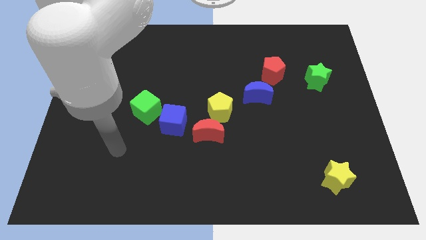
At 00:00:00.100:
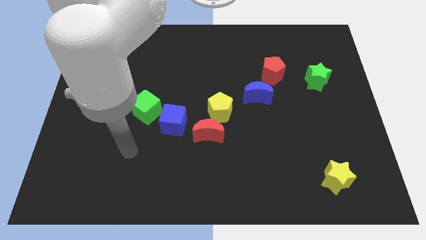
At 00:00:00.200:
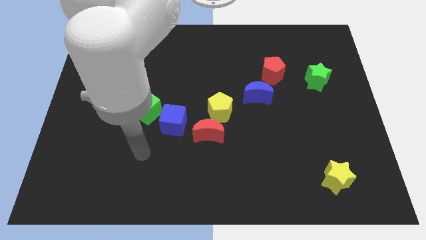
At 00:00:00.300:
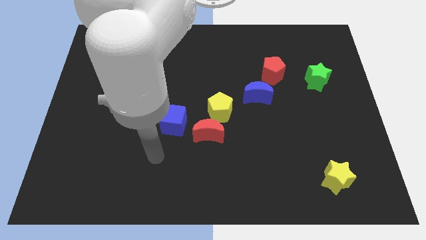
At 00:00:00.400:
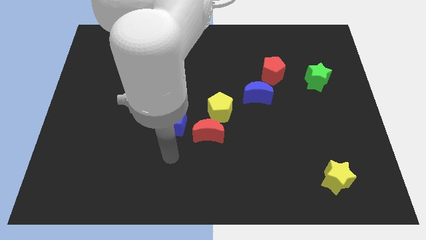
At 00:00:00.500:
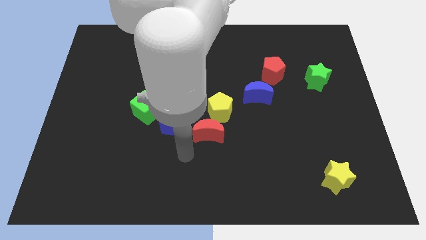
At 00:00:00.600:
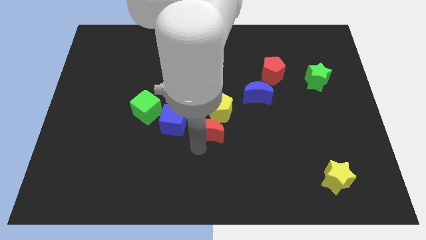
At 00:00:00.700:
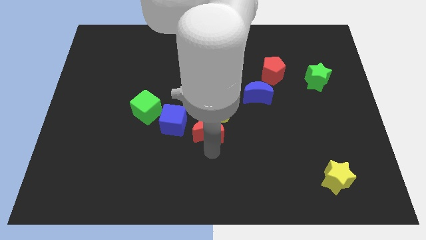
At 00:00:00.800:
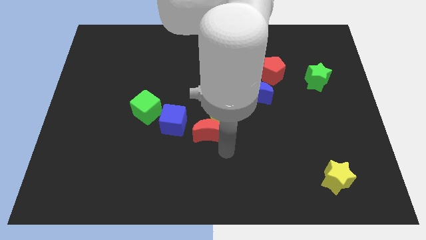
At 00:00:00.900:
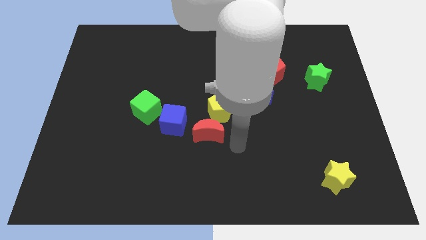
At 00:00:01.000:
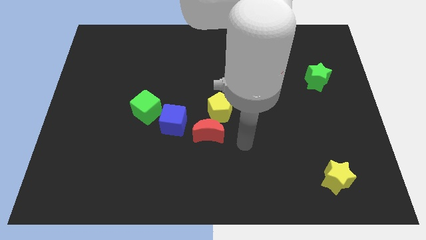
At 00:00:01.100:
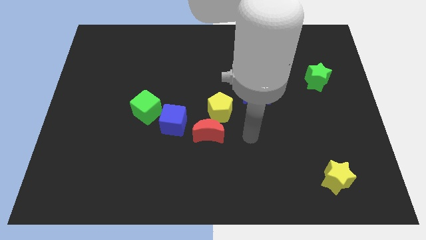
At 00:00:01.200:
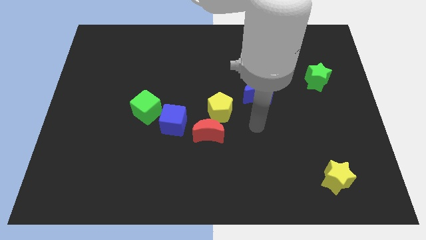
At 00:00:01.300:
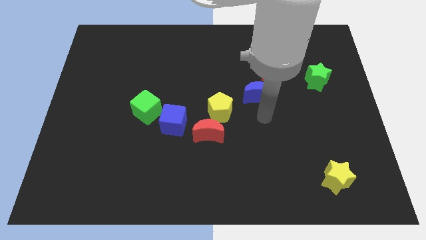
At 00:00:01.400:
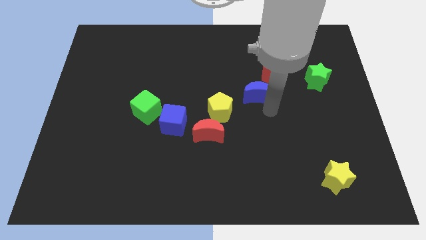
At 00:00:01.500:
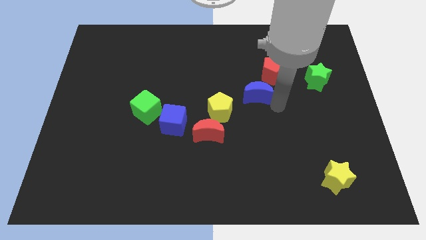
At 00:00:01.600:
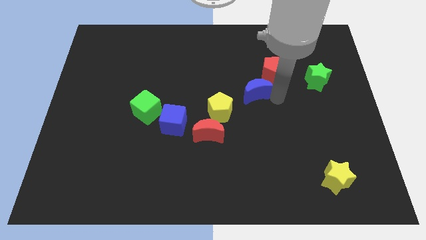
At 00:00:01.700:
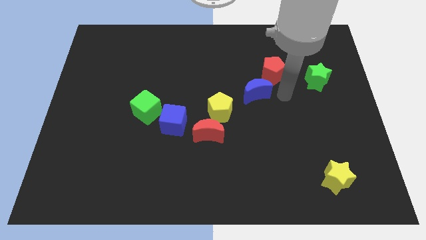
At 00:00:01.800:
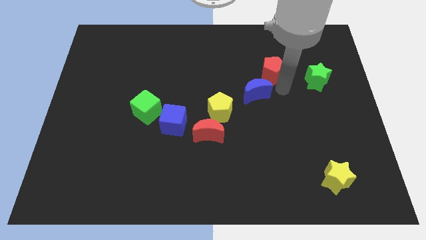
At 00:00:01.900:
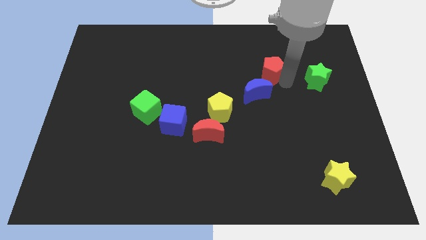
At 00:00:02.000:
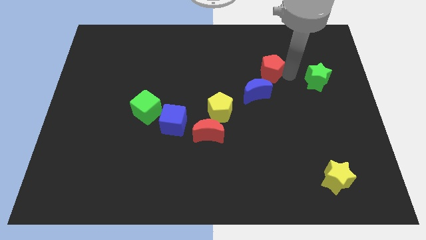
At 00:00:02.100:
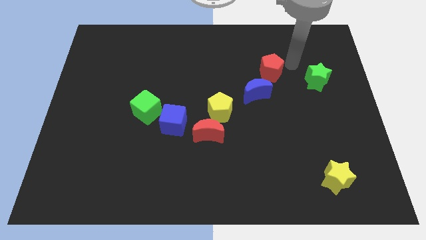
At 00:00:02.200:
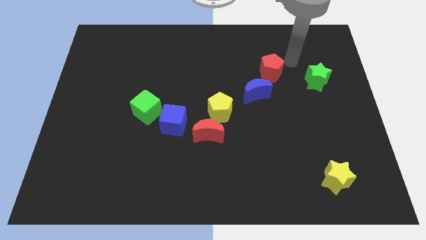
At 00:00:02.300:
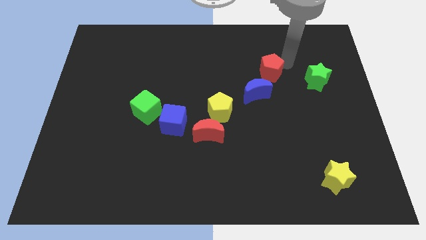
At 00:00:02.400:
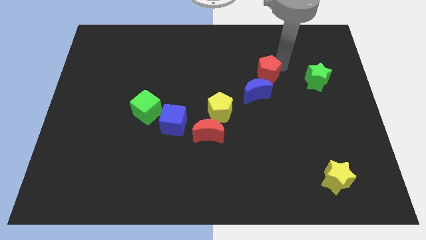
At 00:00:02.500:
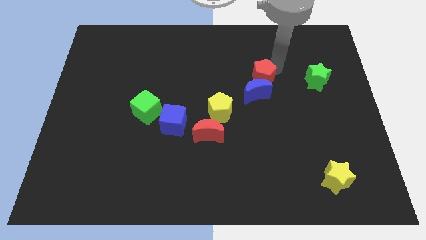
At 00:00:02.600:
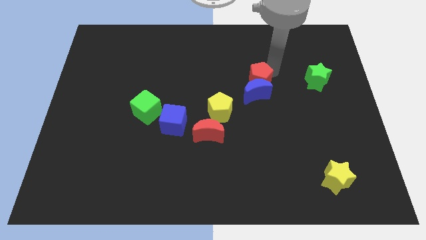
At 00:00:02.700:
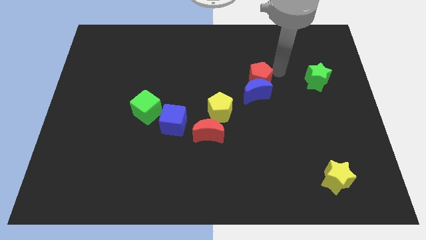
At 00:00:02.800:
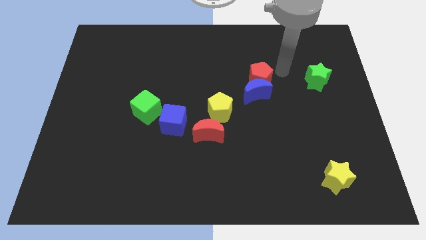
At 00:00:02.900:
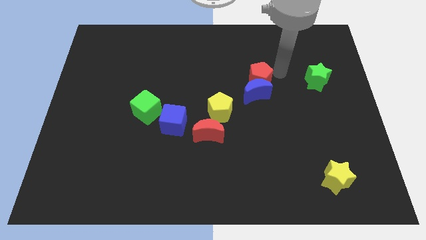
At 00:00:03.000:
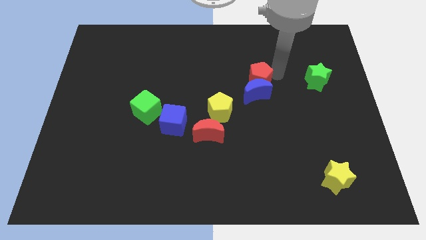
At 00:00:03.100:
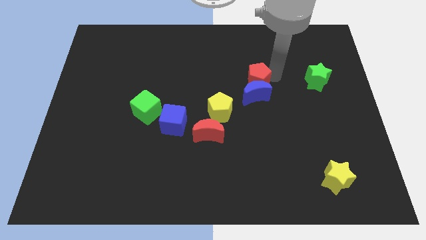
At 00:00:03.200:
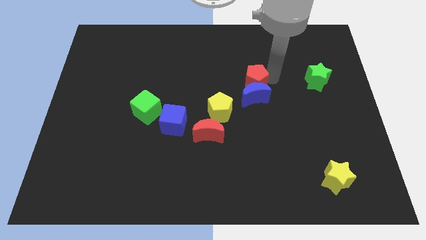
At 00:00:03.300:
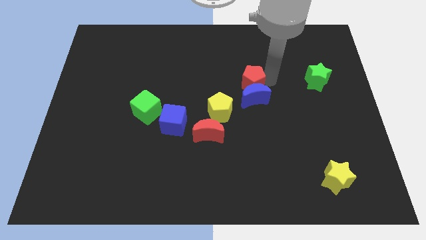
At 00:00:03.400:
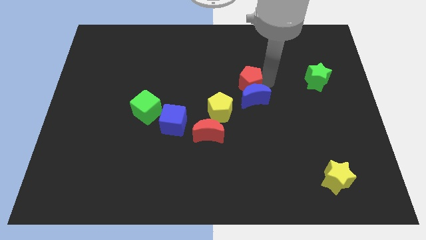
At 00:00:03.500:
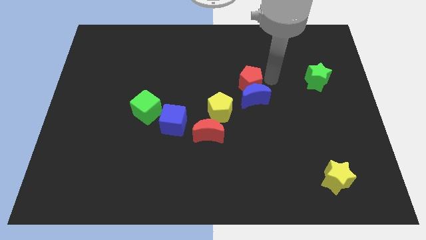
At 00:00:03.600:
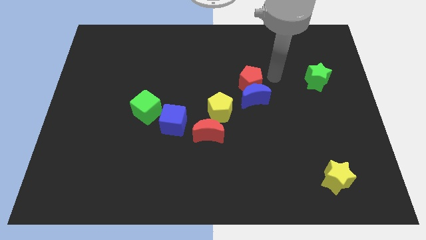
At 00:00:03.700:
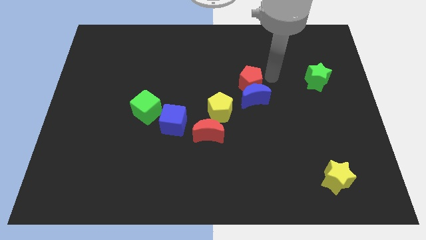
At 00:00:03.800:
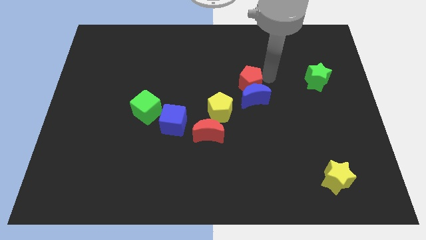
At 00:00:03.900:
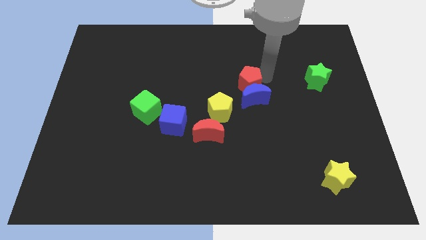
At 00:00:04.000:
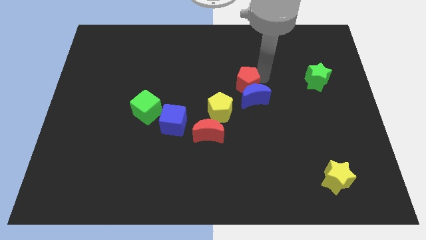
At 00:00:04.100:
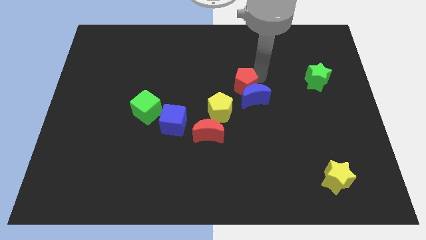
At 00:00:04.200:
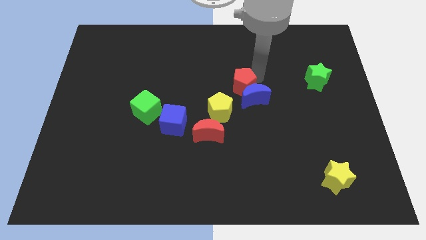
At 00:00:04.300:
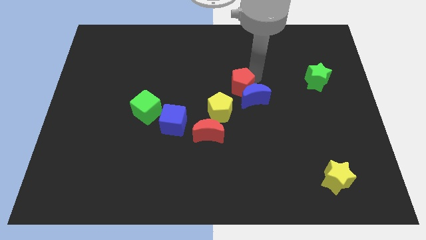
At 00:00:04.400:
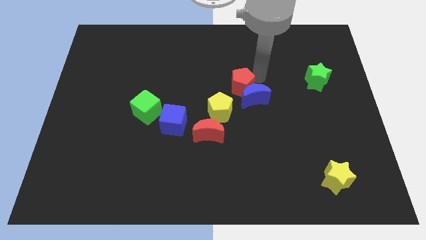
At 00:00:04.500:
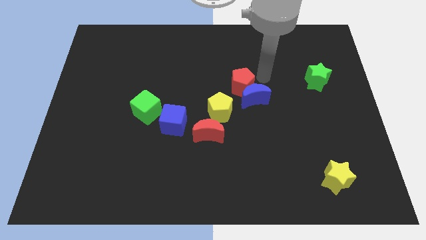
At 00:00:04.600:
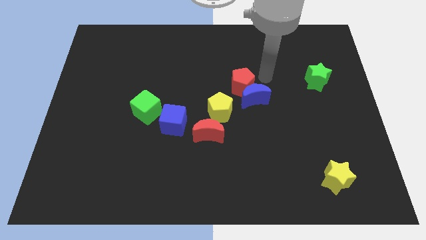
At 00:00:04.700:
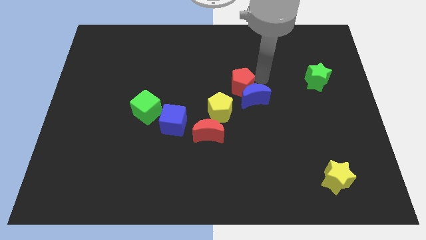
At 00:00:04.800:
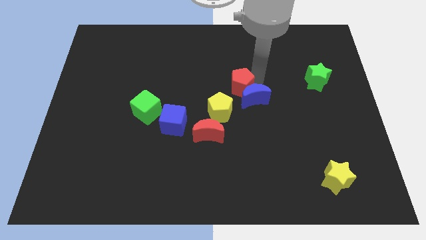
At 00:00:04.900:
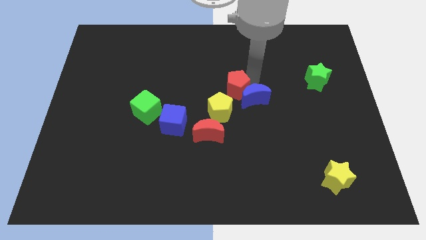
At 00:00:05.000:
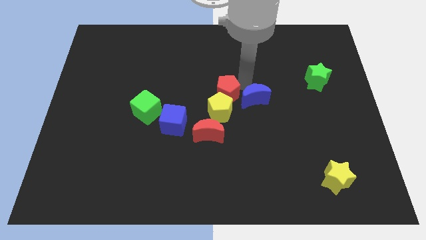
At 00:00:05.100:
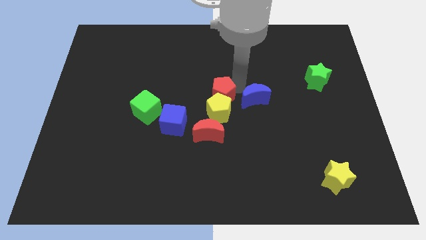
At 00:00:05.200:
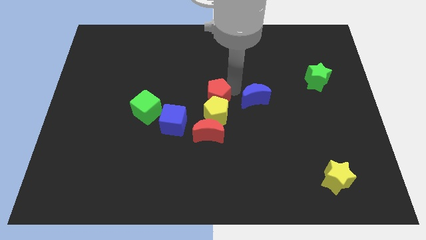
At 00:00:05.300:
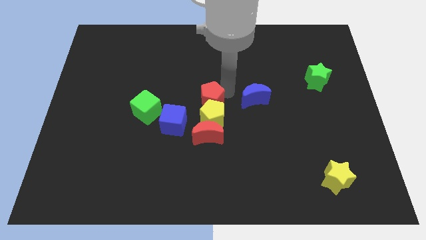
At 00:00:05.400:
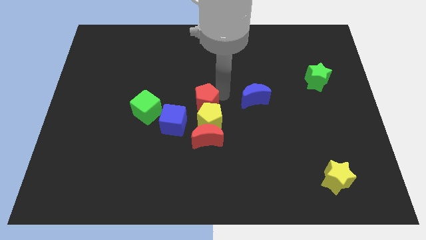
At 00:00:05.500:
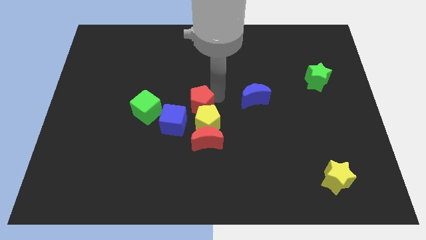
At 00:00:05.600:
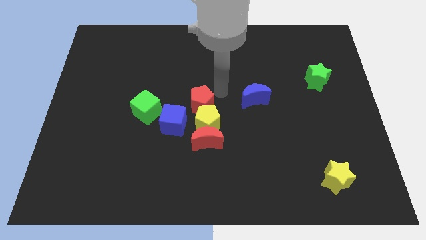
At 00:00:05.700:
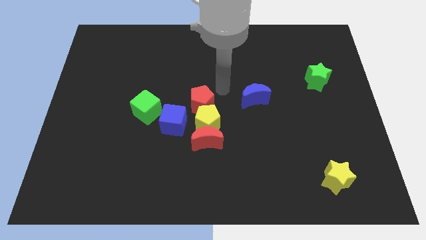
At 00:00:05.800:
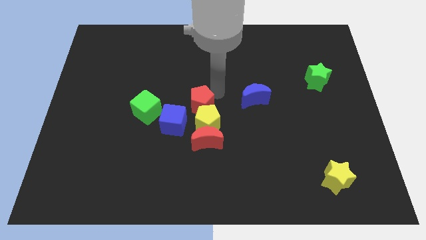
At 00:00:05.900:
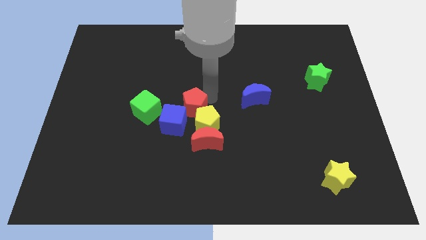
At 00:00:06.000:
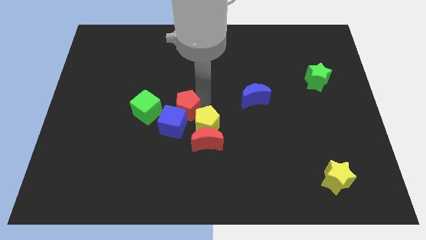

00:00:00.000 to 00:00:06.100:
slide the red pentagon towards the blue cube
